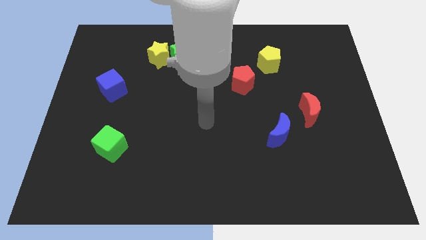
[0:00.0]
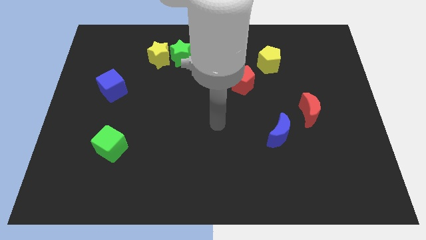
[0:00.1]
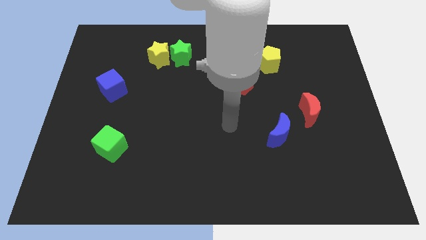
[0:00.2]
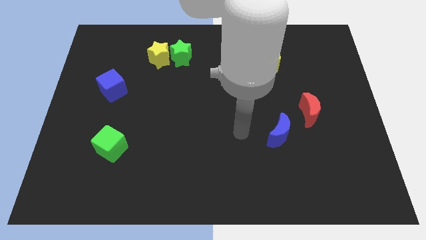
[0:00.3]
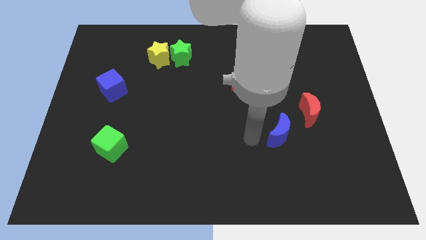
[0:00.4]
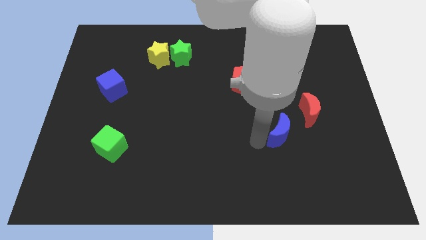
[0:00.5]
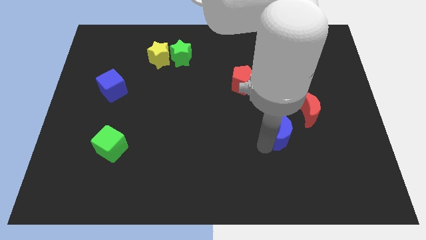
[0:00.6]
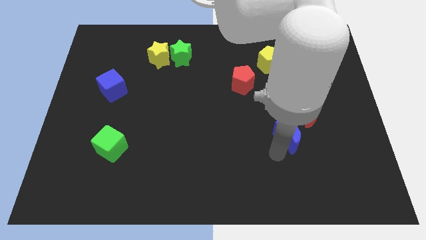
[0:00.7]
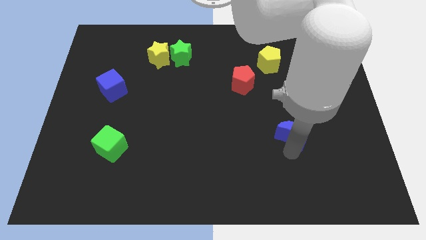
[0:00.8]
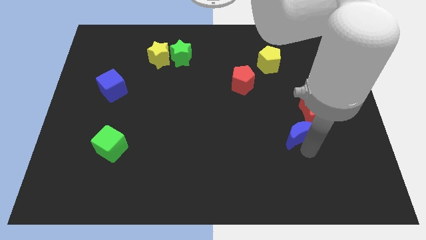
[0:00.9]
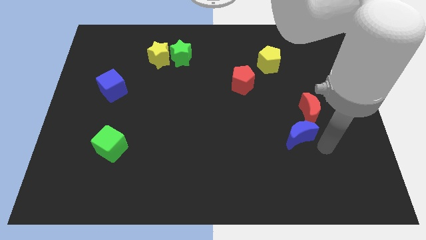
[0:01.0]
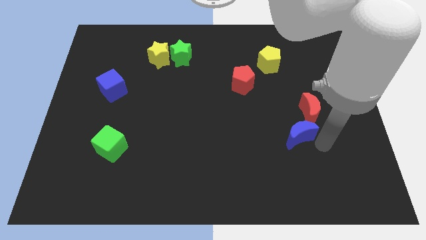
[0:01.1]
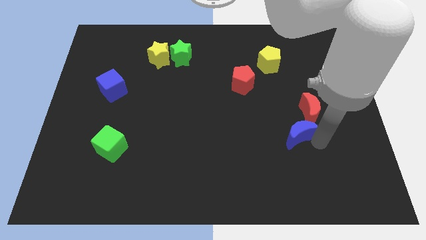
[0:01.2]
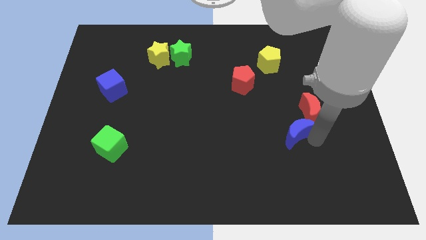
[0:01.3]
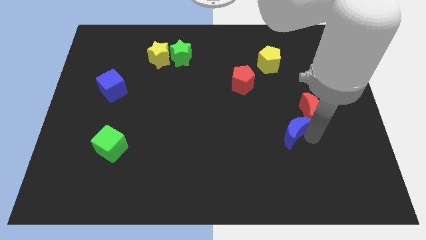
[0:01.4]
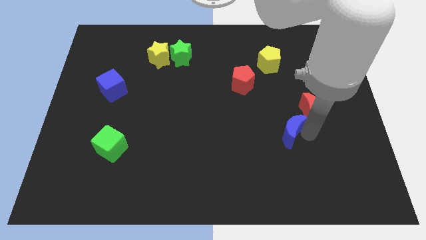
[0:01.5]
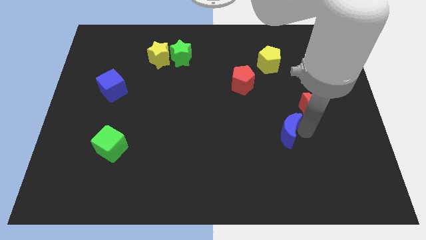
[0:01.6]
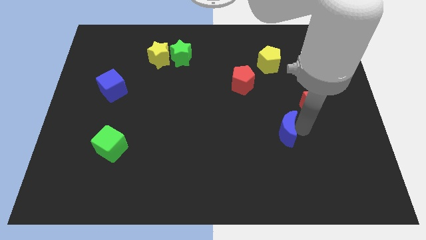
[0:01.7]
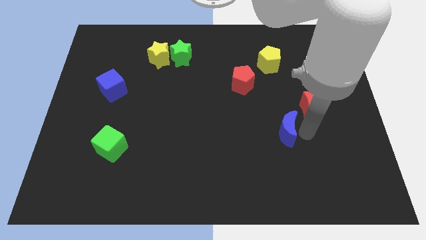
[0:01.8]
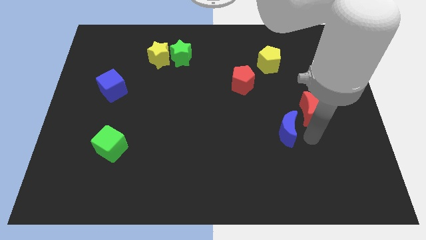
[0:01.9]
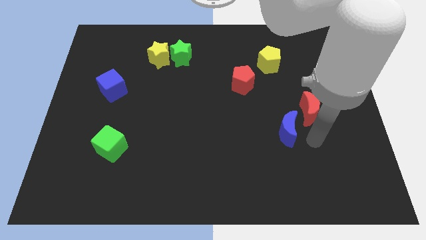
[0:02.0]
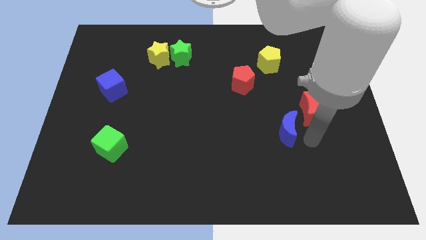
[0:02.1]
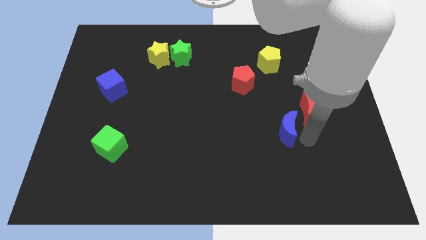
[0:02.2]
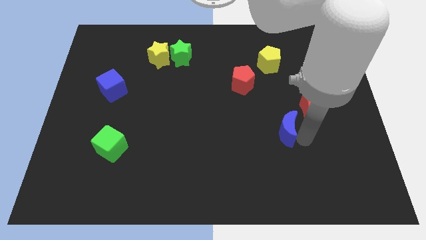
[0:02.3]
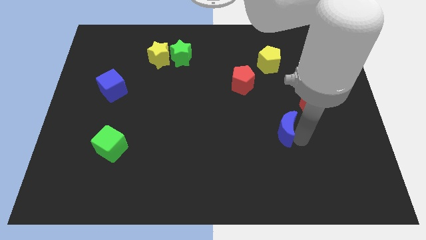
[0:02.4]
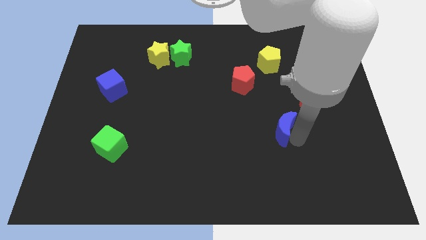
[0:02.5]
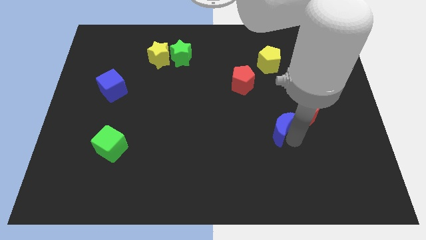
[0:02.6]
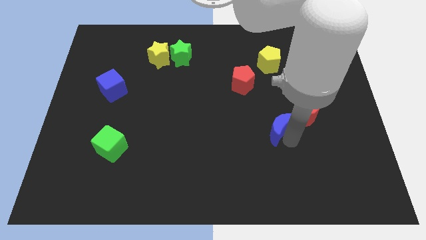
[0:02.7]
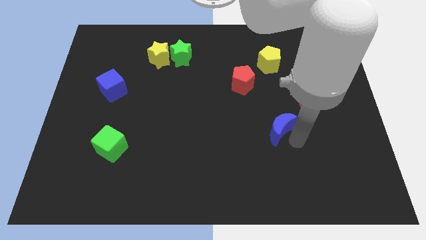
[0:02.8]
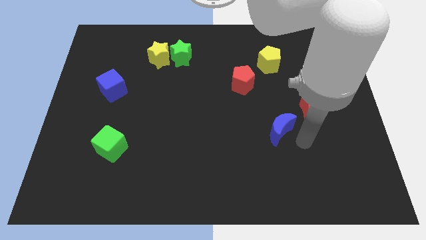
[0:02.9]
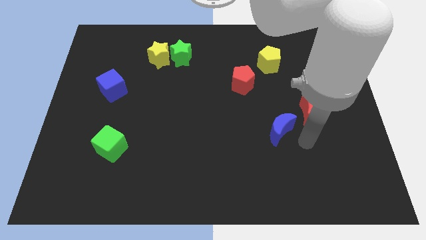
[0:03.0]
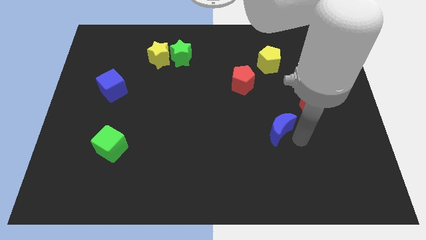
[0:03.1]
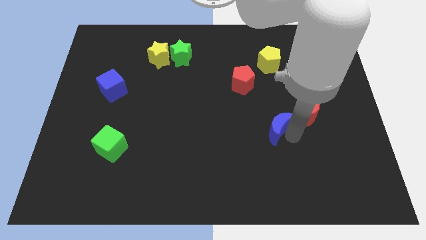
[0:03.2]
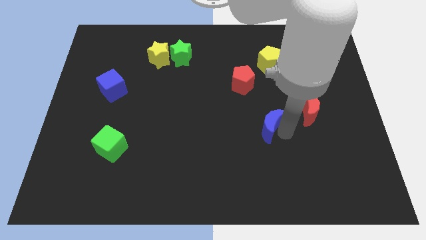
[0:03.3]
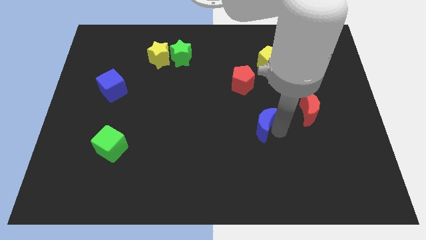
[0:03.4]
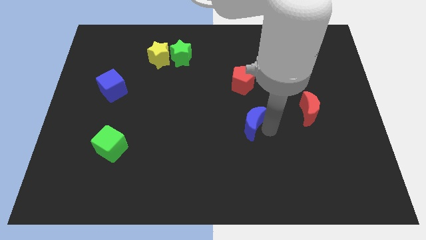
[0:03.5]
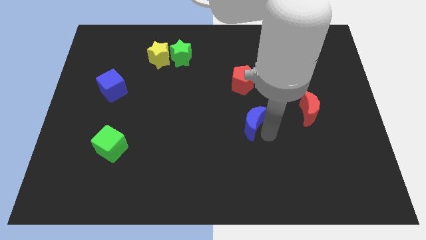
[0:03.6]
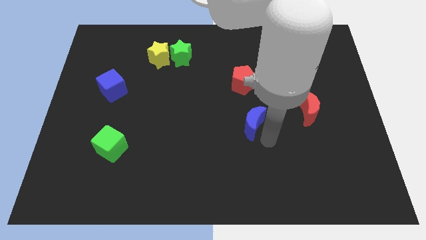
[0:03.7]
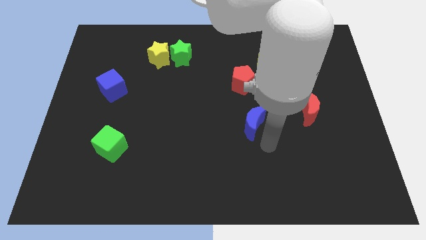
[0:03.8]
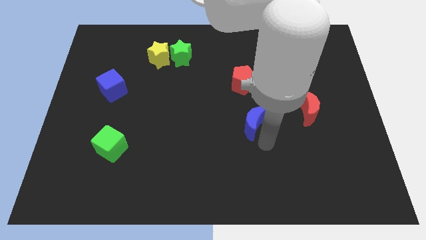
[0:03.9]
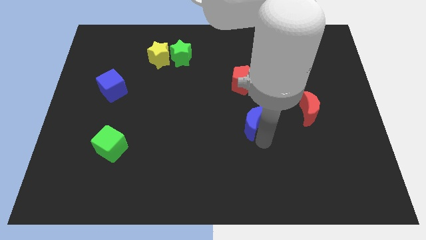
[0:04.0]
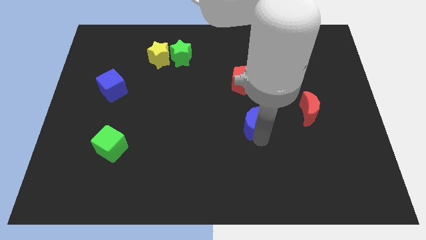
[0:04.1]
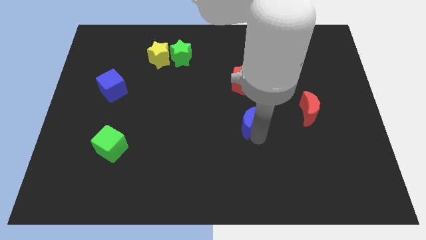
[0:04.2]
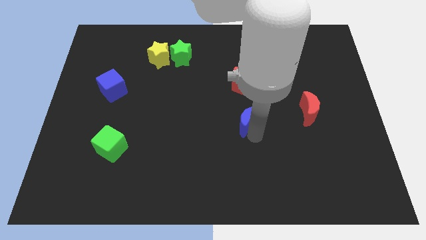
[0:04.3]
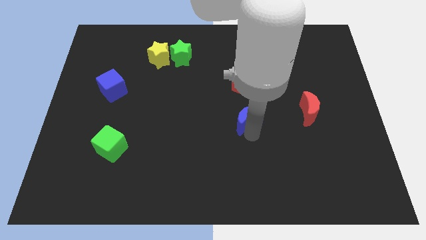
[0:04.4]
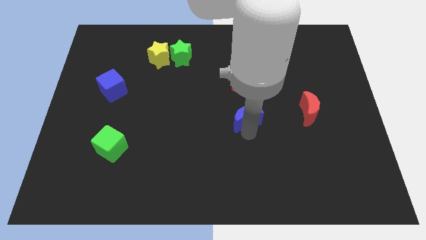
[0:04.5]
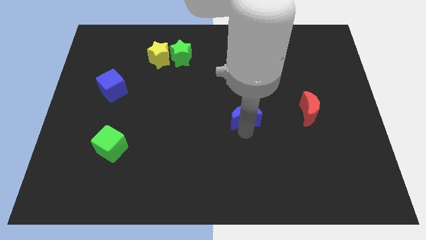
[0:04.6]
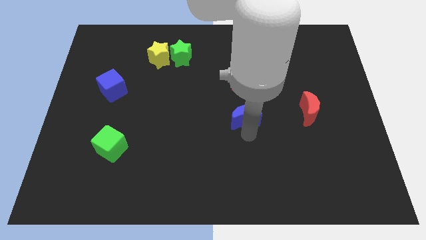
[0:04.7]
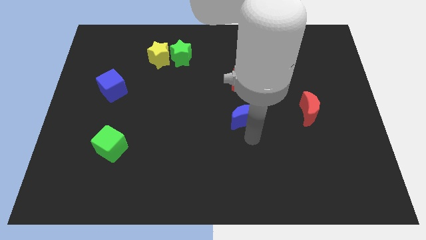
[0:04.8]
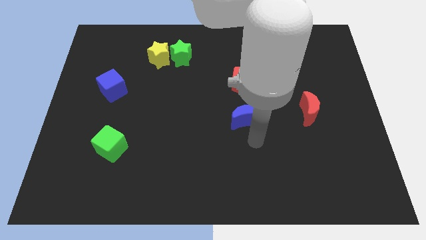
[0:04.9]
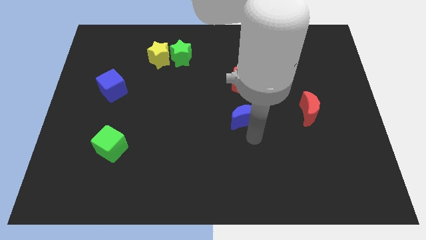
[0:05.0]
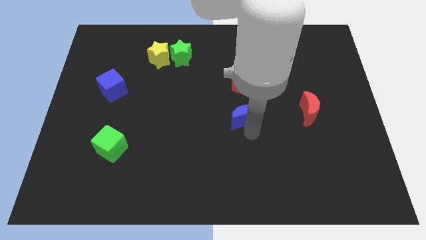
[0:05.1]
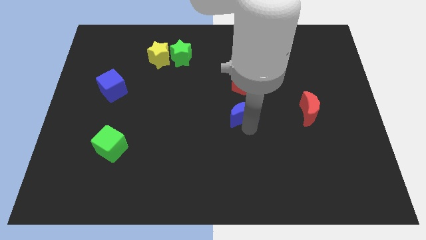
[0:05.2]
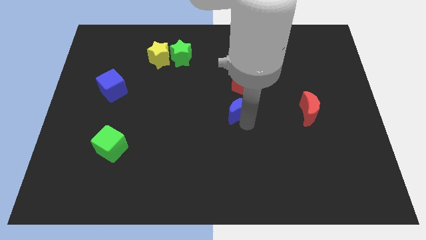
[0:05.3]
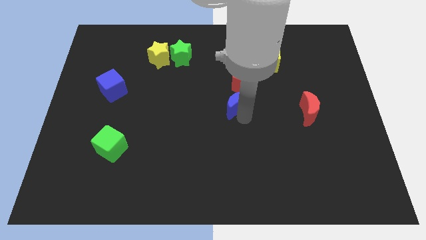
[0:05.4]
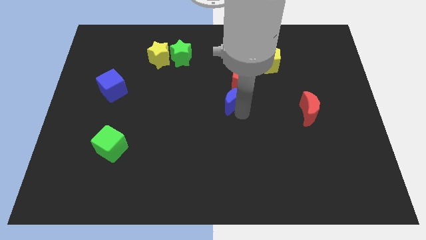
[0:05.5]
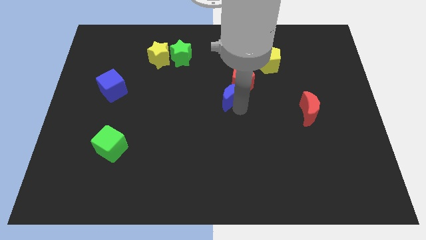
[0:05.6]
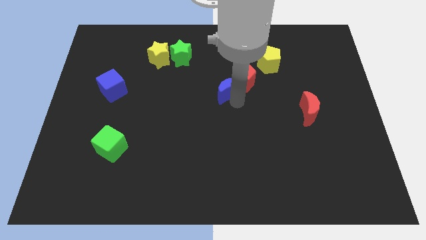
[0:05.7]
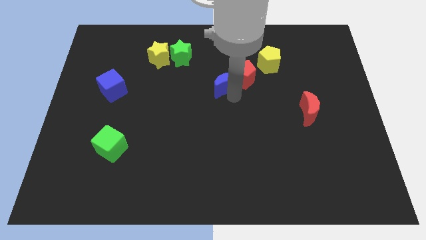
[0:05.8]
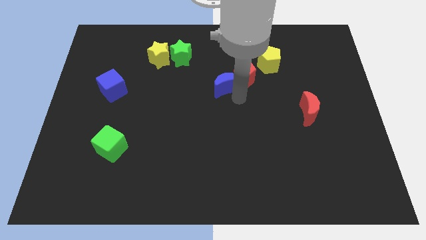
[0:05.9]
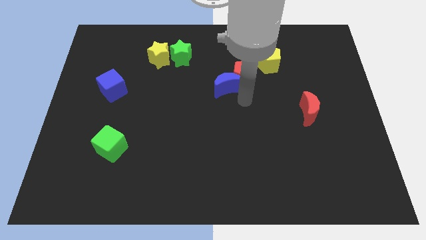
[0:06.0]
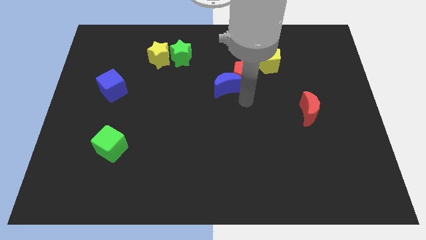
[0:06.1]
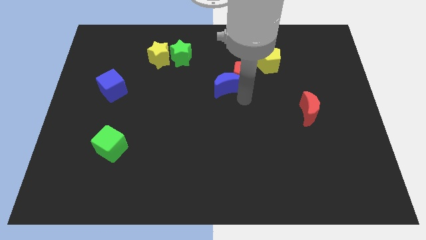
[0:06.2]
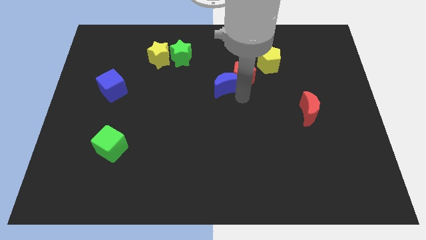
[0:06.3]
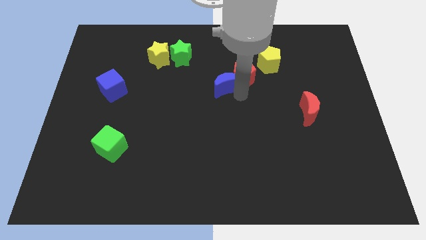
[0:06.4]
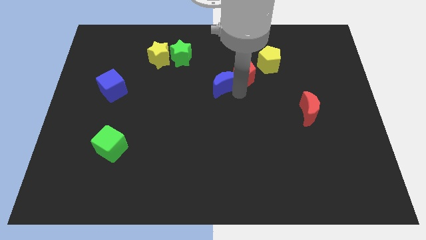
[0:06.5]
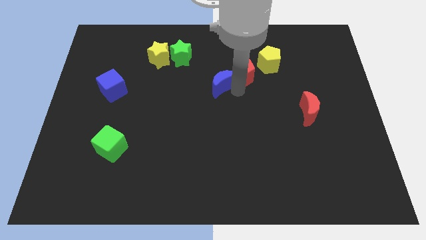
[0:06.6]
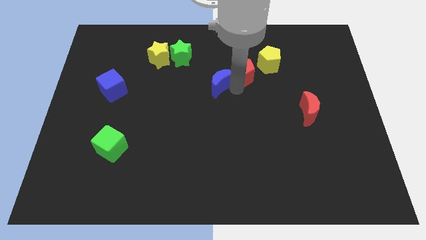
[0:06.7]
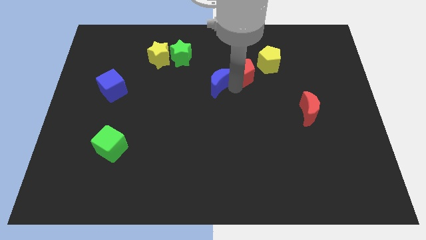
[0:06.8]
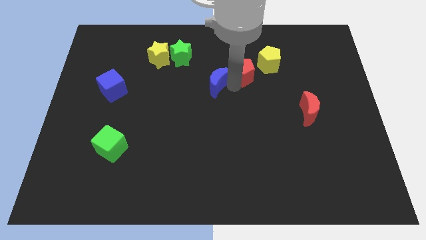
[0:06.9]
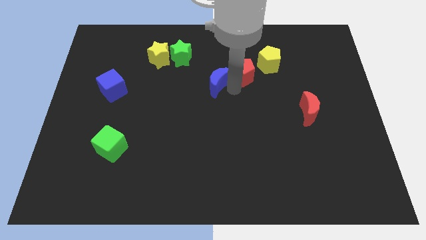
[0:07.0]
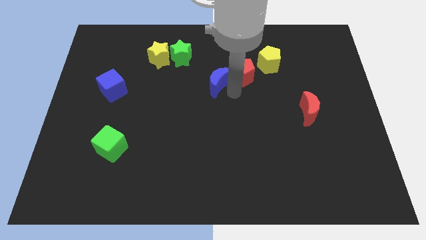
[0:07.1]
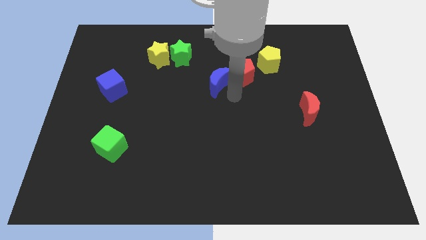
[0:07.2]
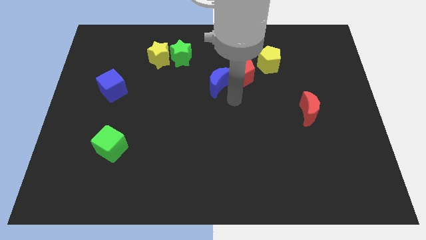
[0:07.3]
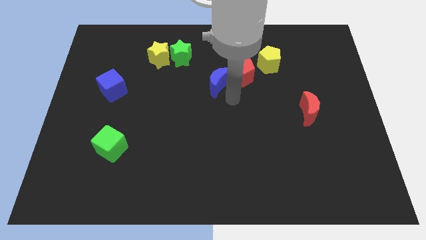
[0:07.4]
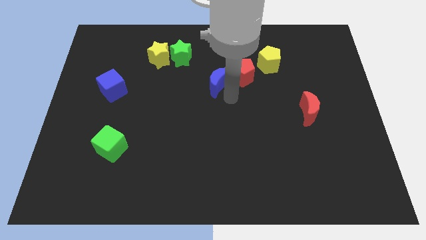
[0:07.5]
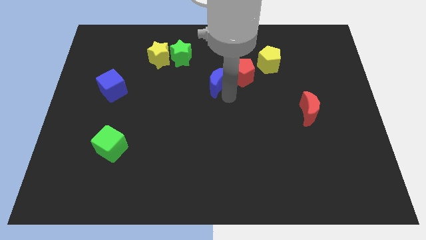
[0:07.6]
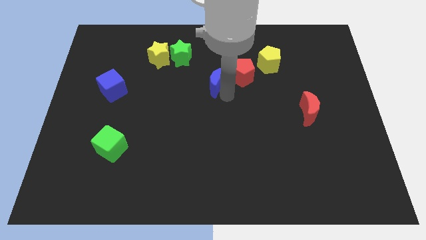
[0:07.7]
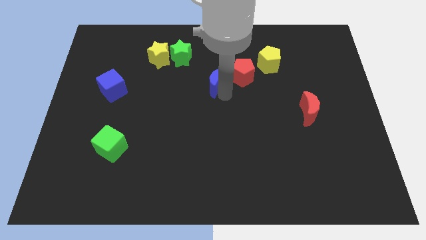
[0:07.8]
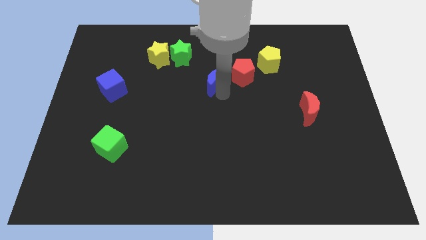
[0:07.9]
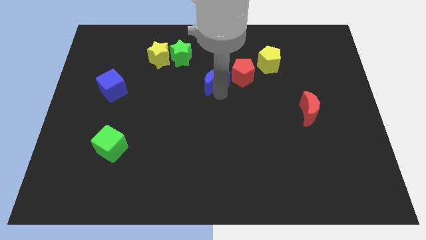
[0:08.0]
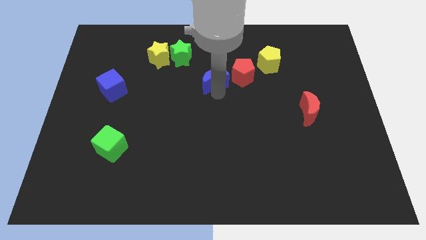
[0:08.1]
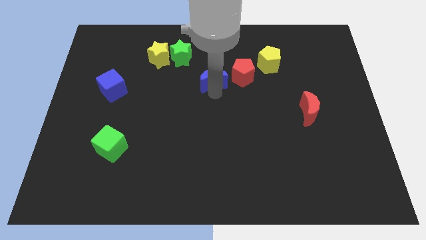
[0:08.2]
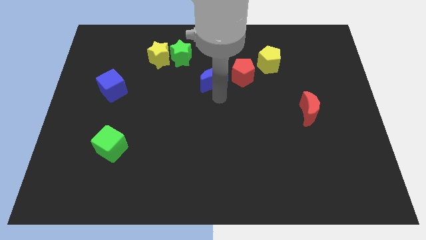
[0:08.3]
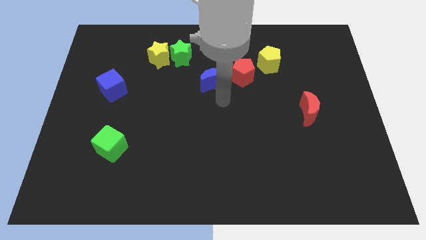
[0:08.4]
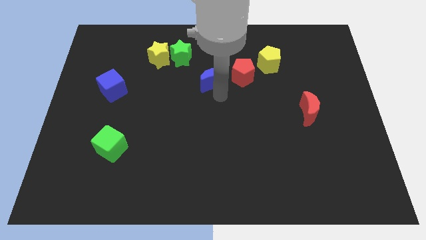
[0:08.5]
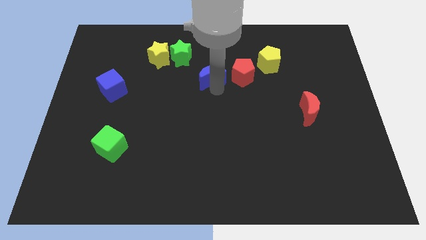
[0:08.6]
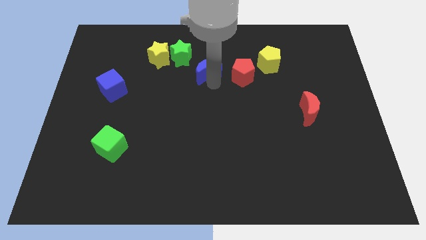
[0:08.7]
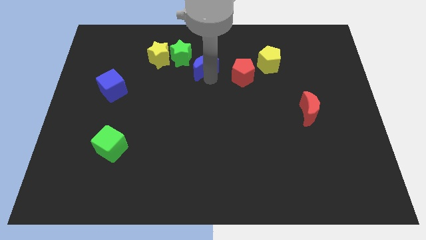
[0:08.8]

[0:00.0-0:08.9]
put the blue moon to the right of the yellow star
